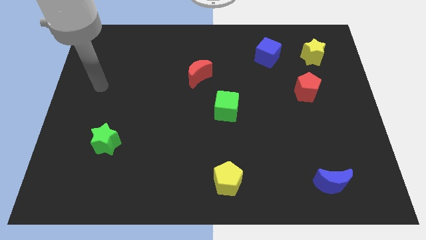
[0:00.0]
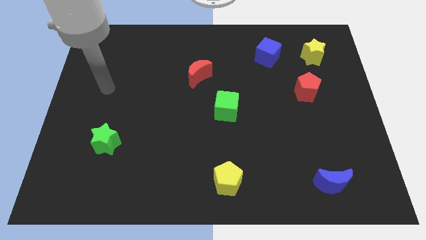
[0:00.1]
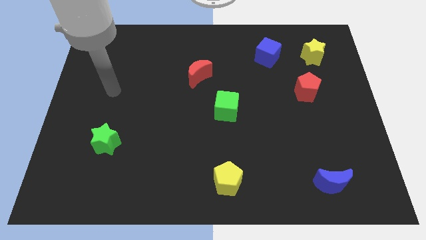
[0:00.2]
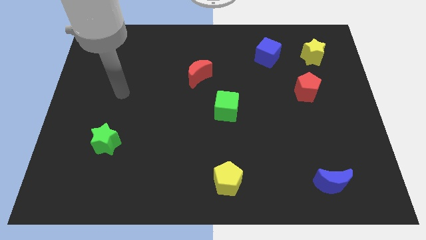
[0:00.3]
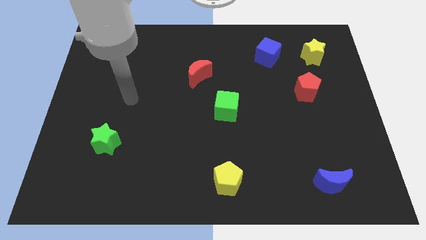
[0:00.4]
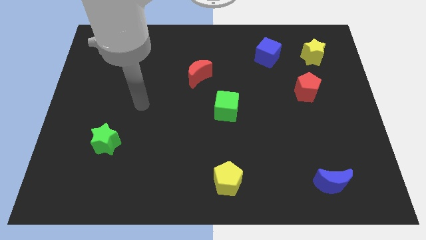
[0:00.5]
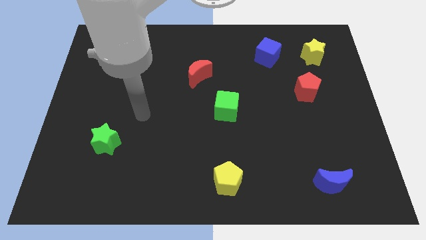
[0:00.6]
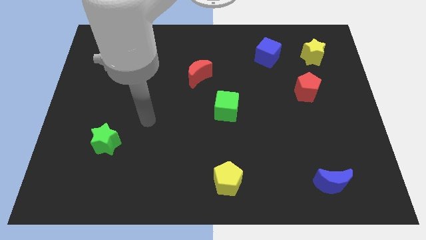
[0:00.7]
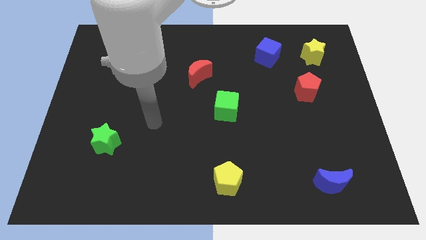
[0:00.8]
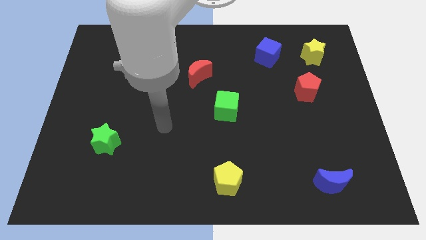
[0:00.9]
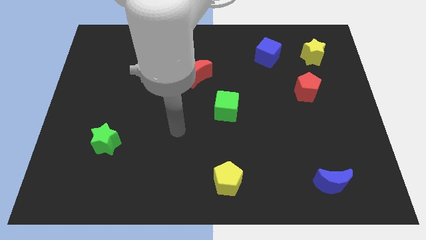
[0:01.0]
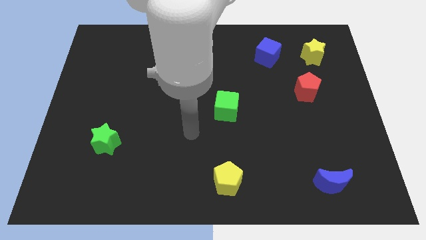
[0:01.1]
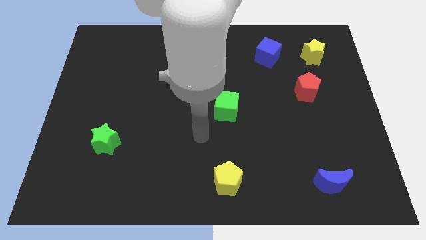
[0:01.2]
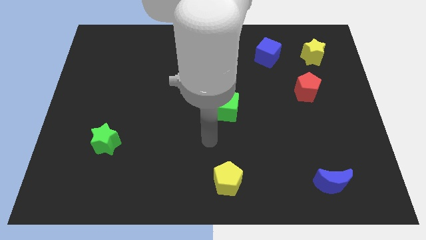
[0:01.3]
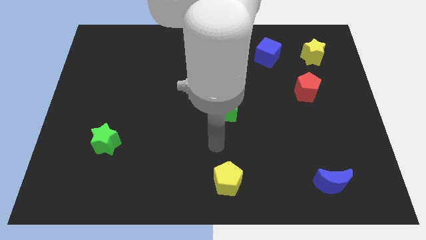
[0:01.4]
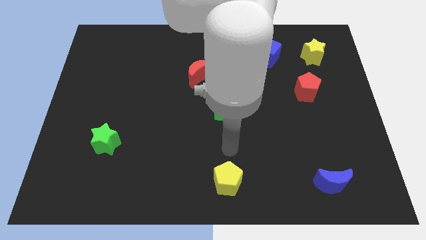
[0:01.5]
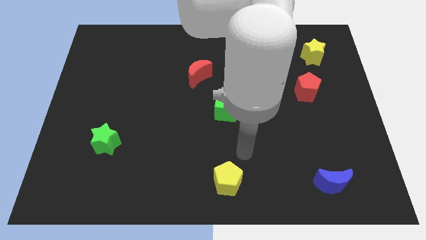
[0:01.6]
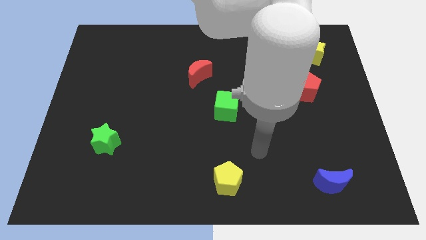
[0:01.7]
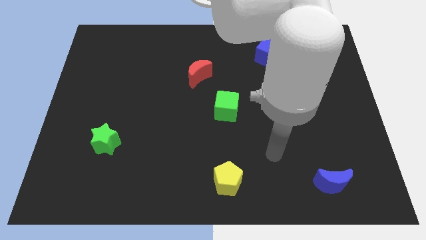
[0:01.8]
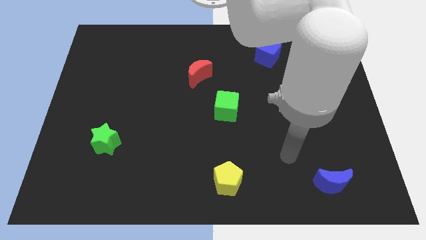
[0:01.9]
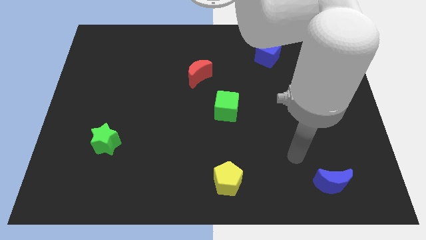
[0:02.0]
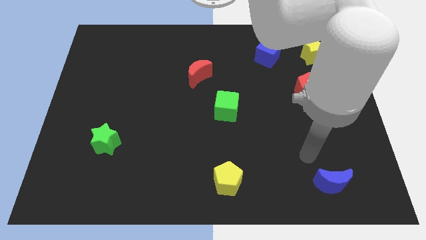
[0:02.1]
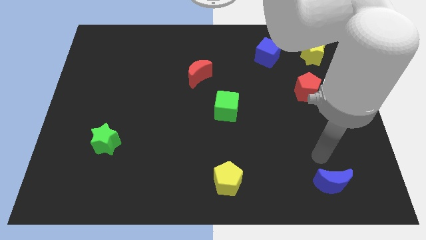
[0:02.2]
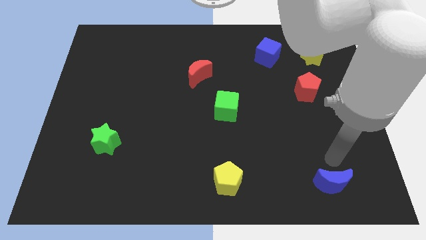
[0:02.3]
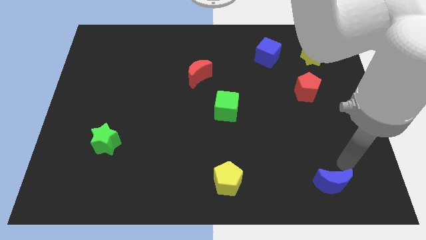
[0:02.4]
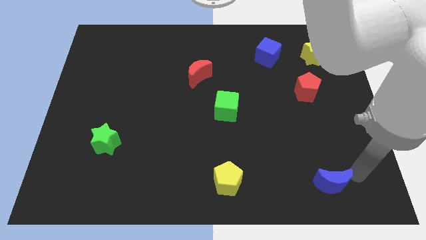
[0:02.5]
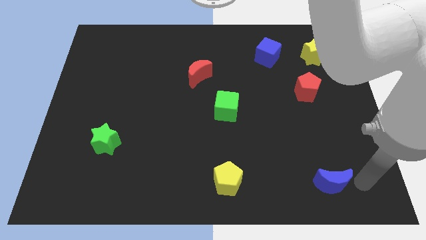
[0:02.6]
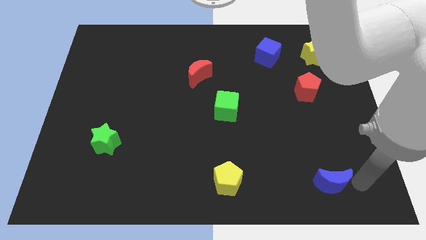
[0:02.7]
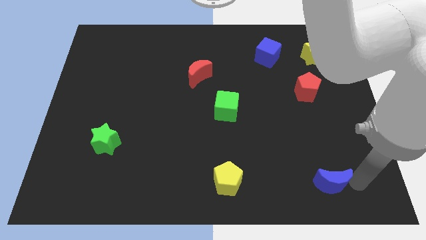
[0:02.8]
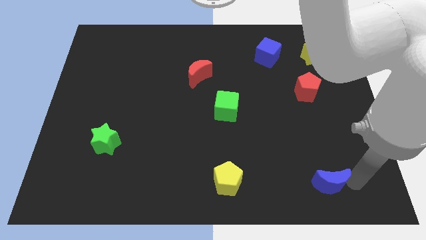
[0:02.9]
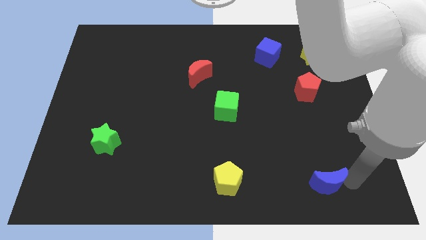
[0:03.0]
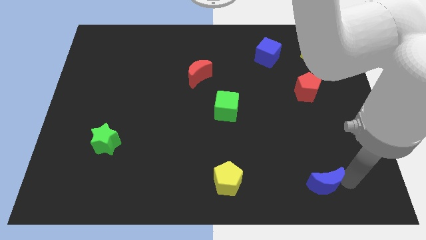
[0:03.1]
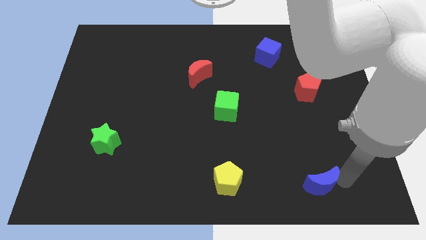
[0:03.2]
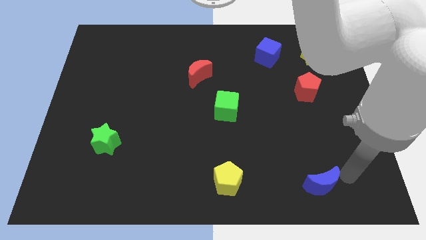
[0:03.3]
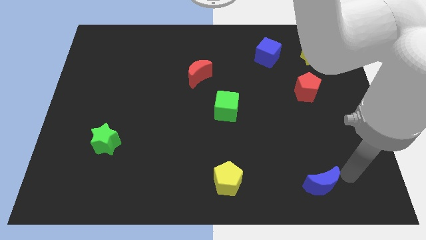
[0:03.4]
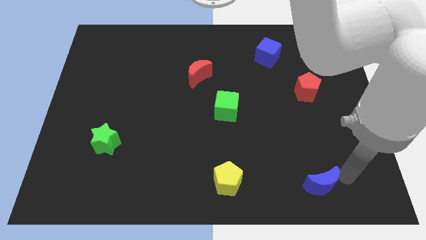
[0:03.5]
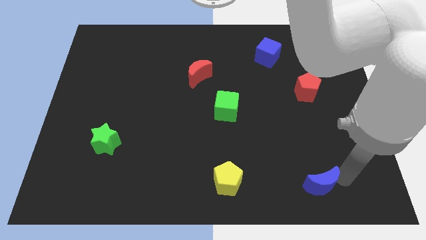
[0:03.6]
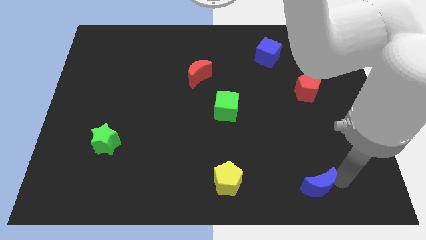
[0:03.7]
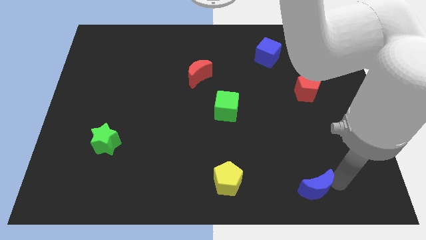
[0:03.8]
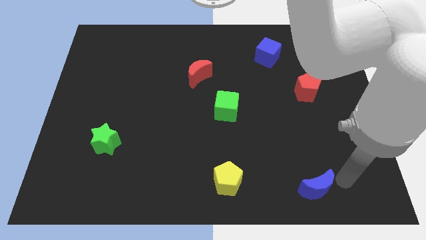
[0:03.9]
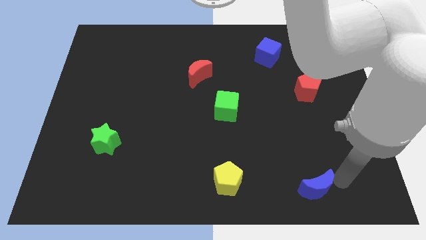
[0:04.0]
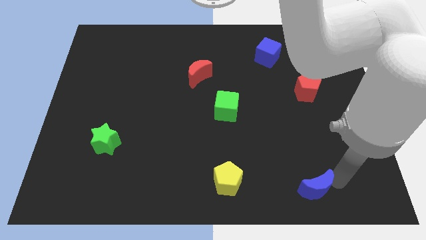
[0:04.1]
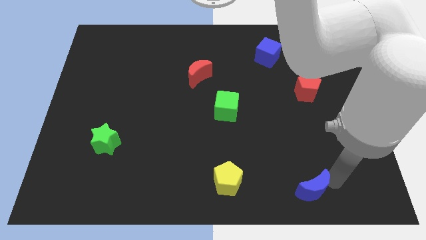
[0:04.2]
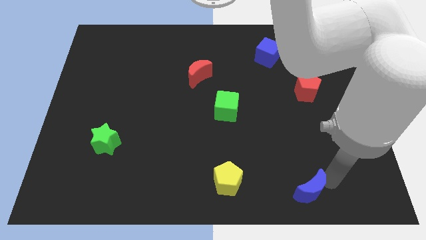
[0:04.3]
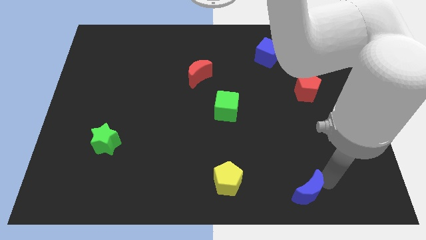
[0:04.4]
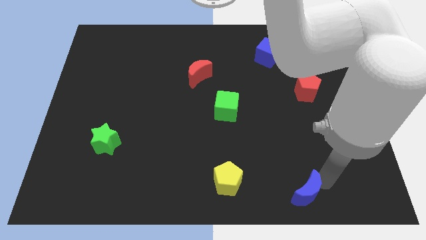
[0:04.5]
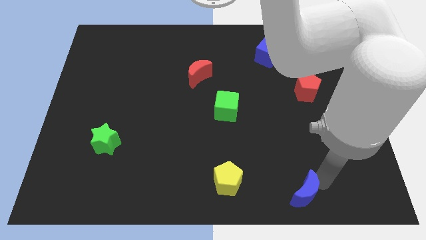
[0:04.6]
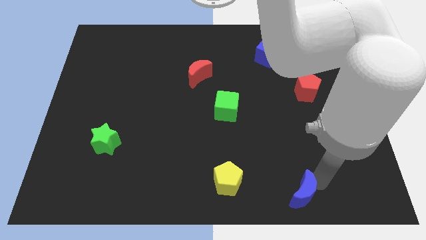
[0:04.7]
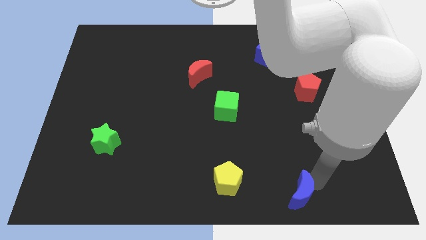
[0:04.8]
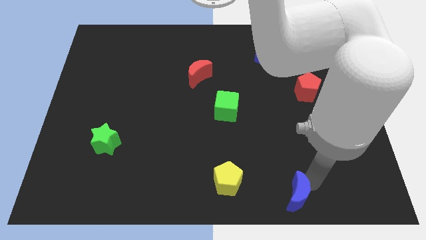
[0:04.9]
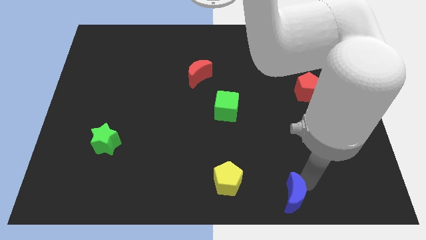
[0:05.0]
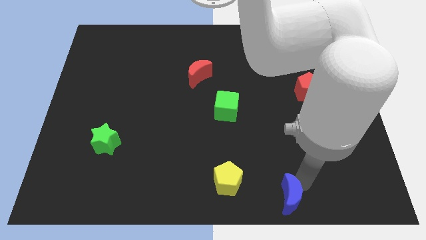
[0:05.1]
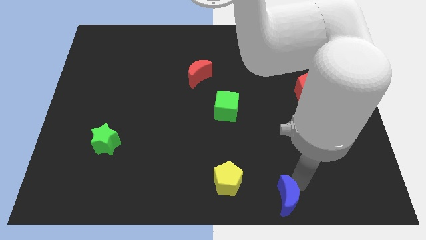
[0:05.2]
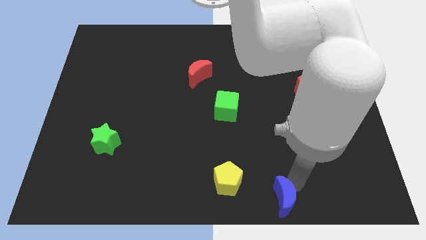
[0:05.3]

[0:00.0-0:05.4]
move the blue moon to the bottom

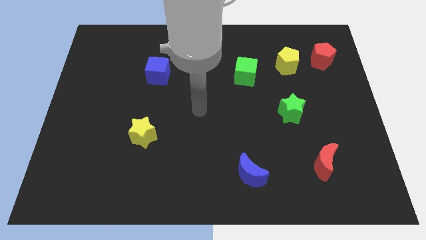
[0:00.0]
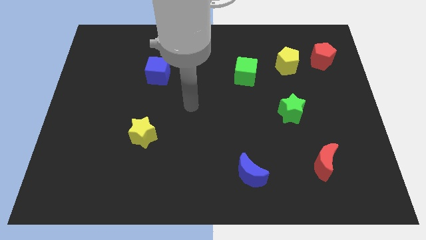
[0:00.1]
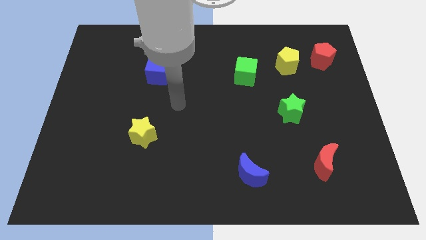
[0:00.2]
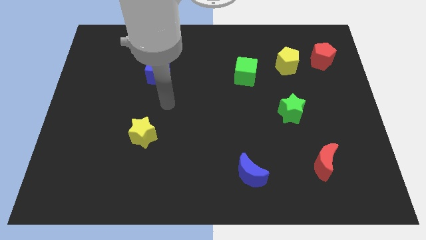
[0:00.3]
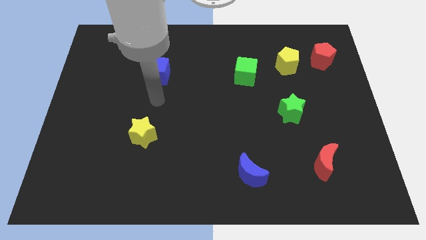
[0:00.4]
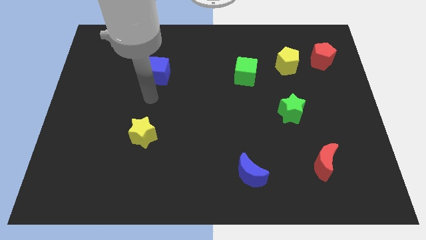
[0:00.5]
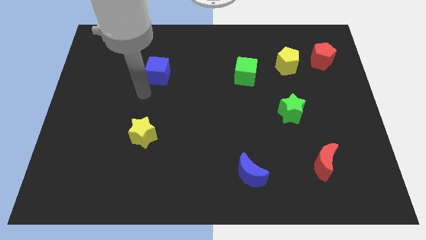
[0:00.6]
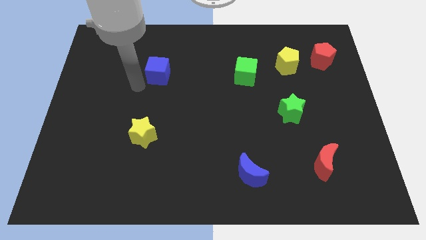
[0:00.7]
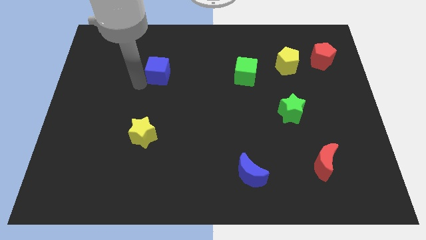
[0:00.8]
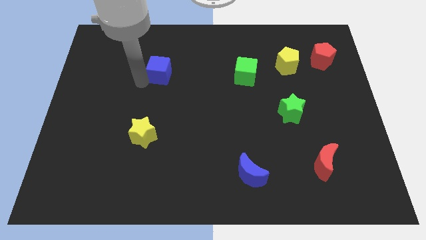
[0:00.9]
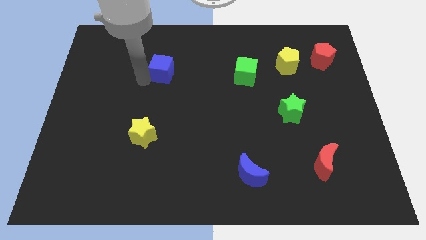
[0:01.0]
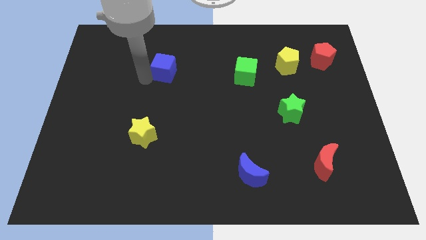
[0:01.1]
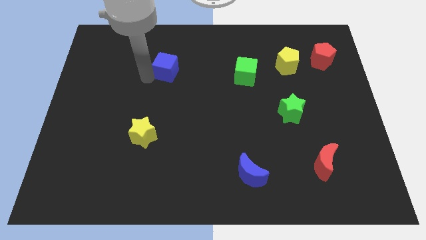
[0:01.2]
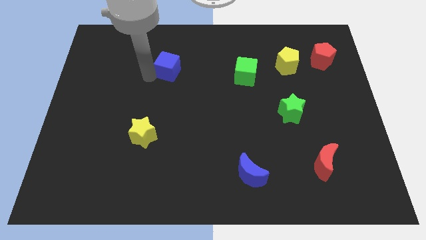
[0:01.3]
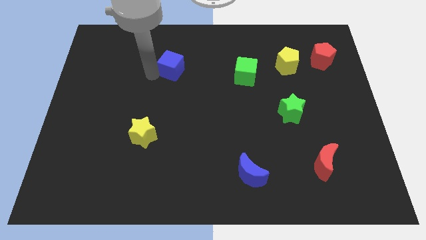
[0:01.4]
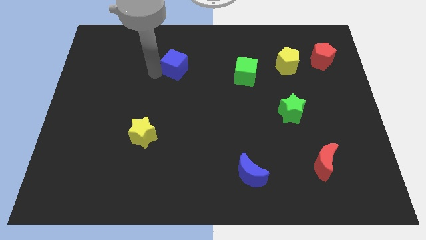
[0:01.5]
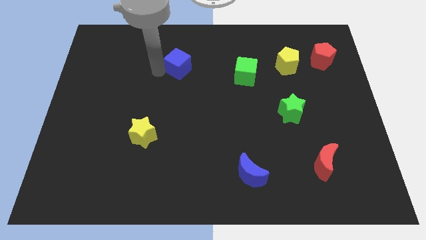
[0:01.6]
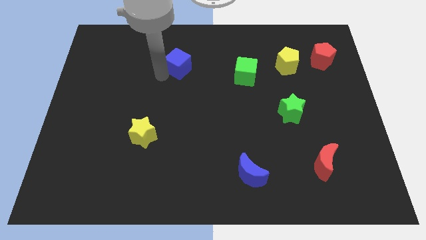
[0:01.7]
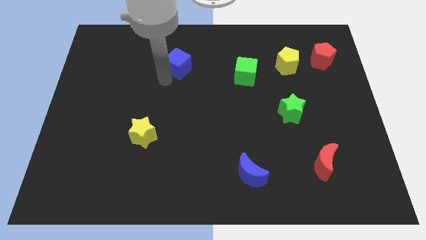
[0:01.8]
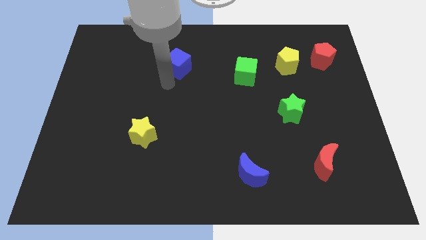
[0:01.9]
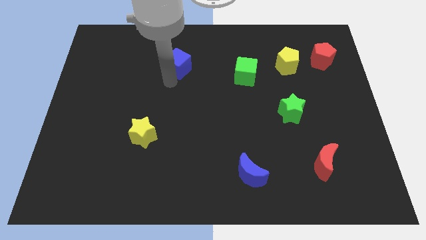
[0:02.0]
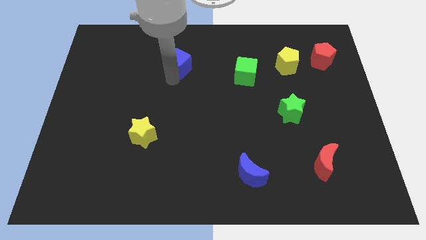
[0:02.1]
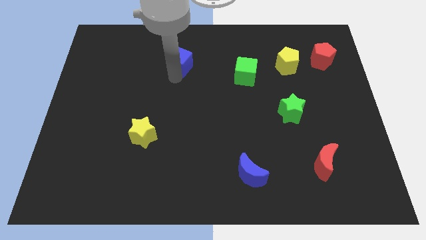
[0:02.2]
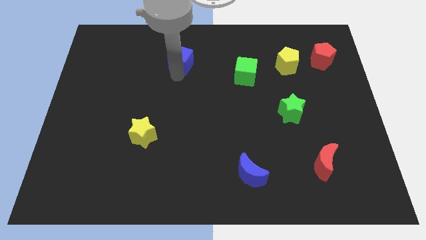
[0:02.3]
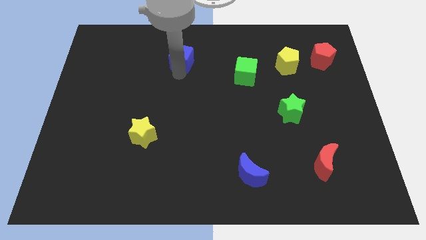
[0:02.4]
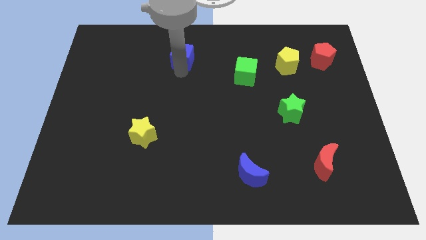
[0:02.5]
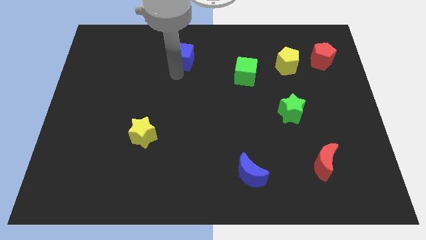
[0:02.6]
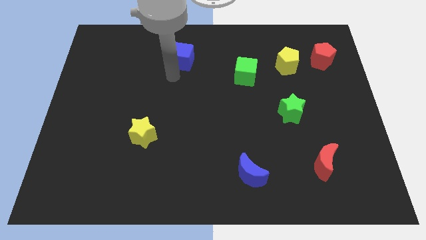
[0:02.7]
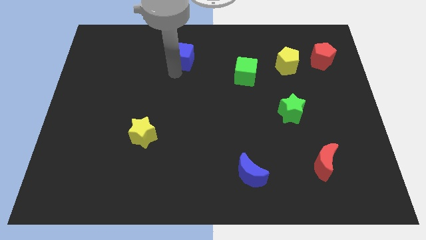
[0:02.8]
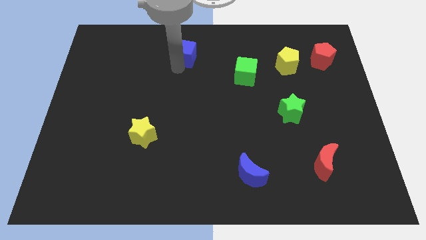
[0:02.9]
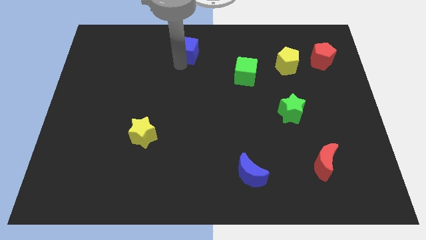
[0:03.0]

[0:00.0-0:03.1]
move the blue cube to the towards your base
